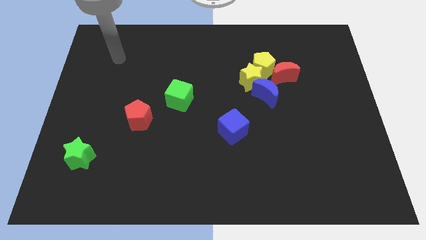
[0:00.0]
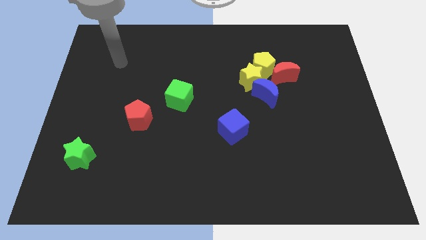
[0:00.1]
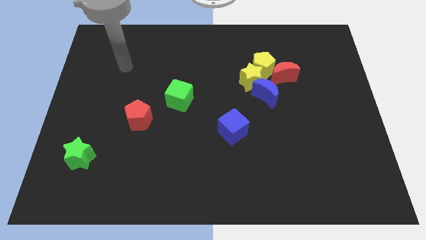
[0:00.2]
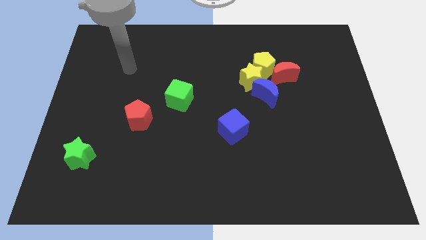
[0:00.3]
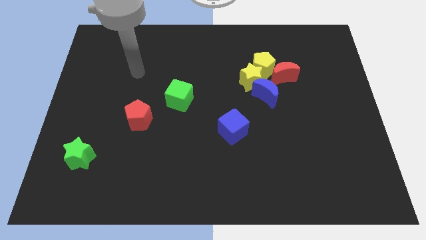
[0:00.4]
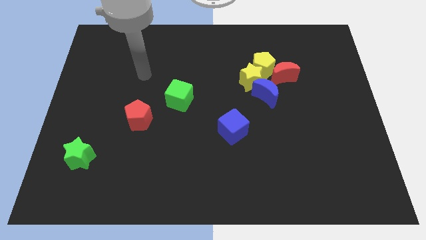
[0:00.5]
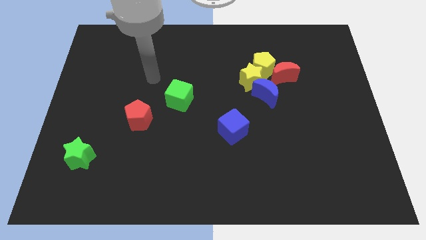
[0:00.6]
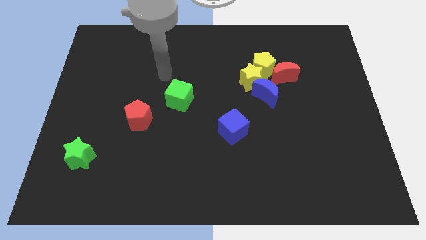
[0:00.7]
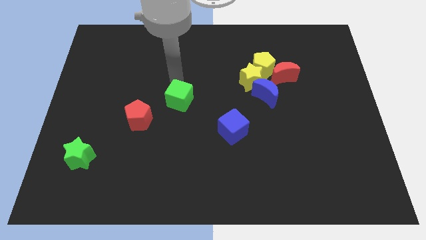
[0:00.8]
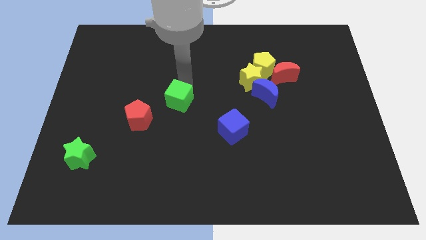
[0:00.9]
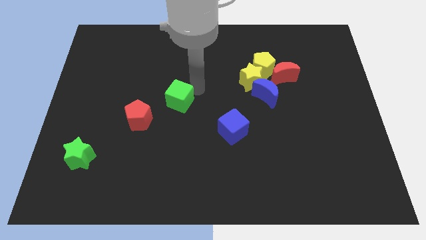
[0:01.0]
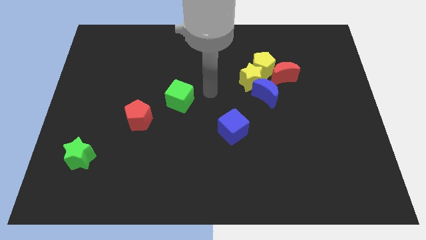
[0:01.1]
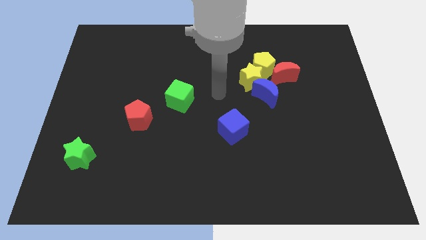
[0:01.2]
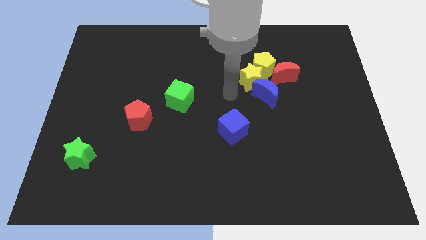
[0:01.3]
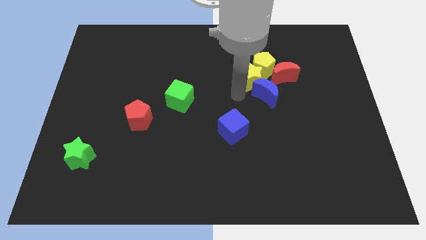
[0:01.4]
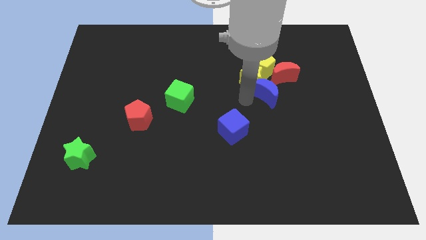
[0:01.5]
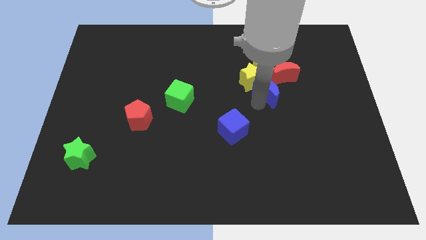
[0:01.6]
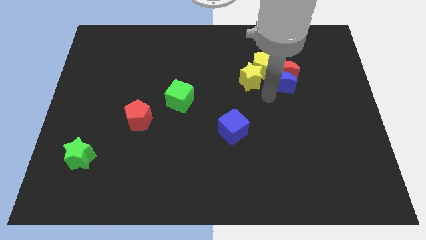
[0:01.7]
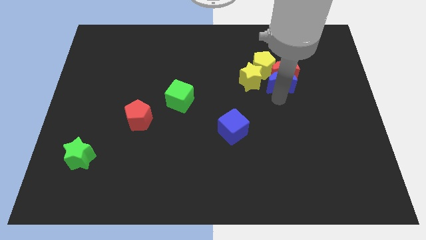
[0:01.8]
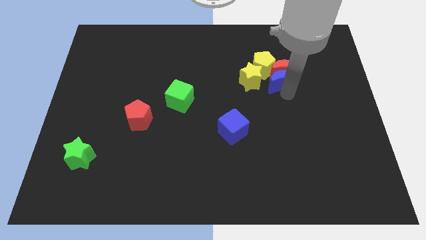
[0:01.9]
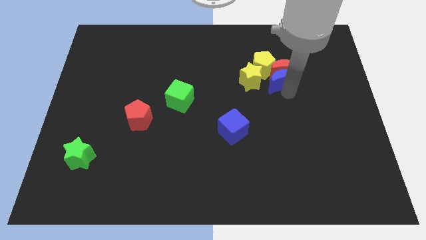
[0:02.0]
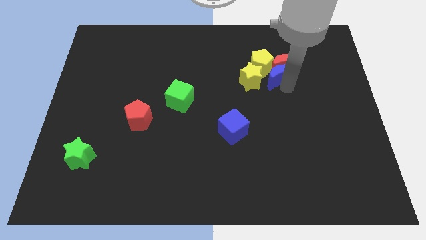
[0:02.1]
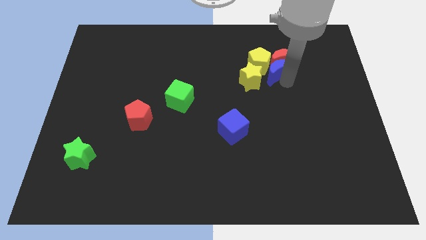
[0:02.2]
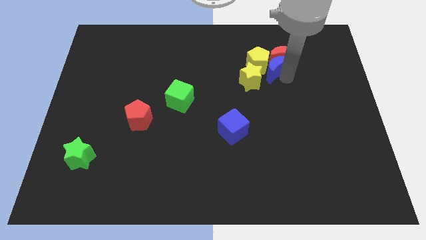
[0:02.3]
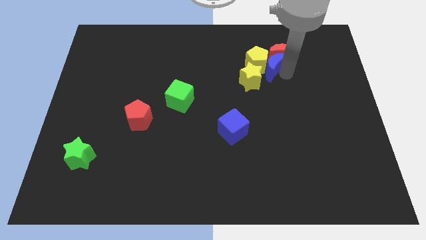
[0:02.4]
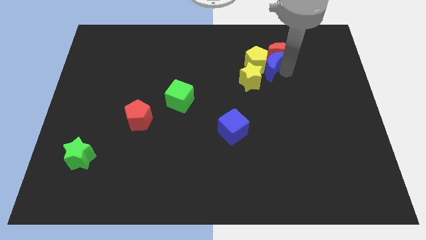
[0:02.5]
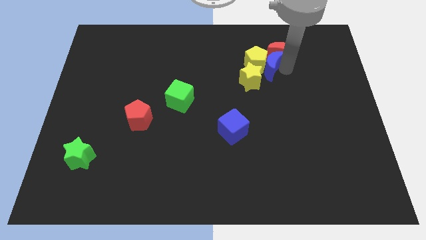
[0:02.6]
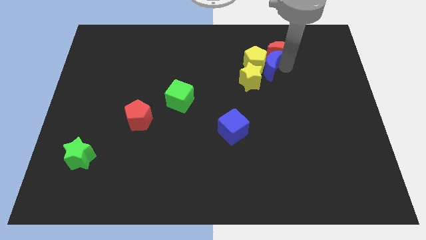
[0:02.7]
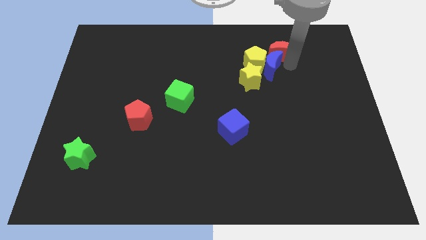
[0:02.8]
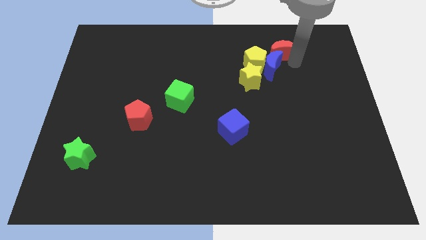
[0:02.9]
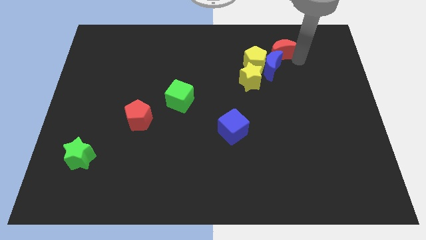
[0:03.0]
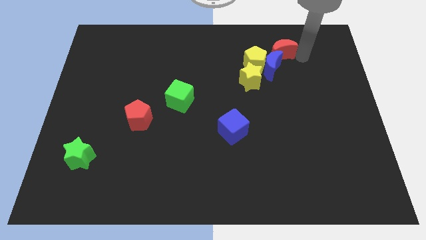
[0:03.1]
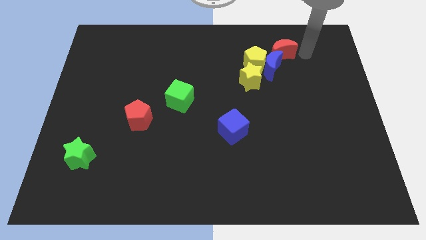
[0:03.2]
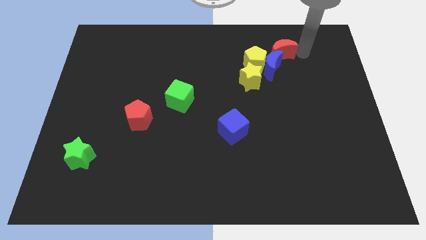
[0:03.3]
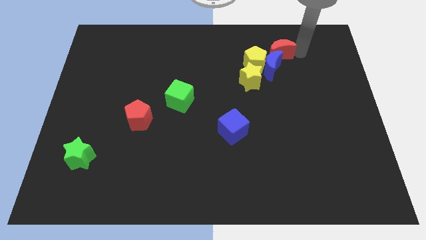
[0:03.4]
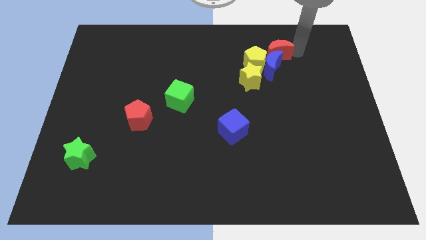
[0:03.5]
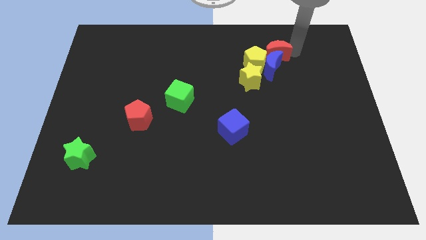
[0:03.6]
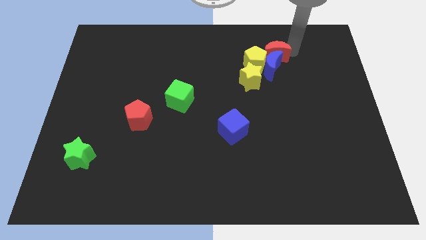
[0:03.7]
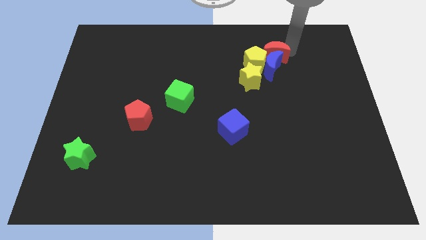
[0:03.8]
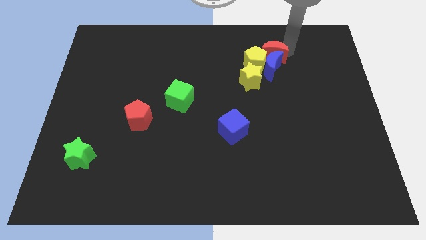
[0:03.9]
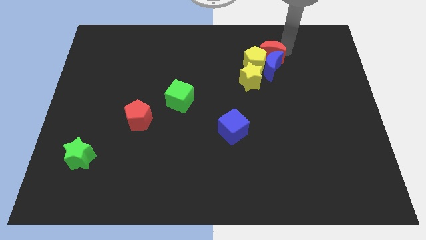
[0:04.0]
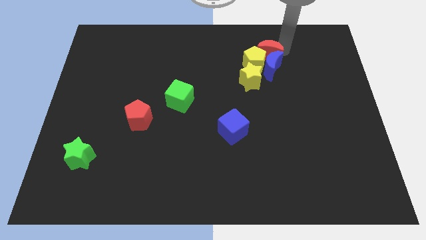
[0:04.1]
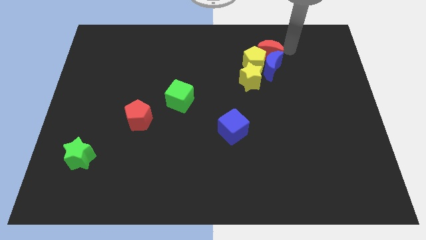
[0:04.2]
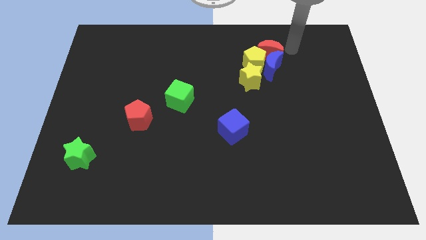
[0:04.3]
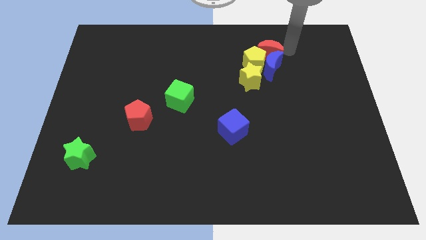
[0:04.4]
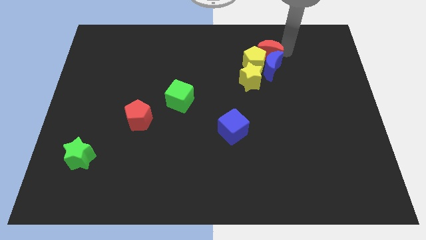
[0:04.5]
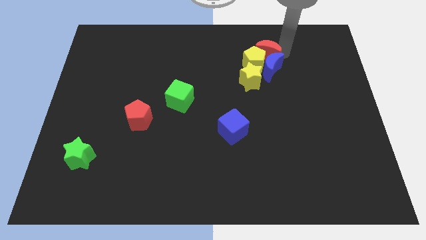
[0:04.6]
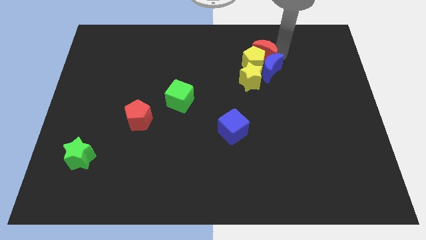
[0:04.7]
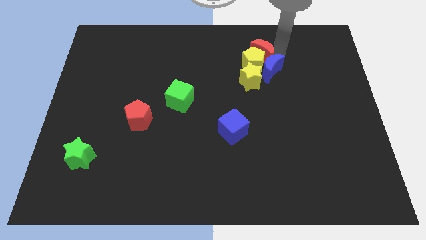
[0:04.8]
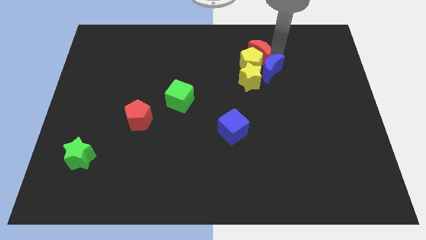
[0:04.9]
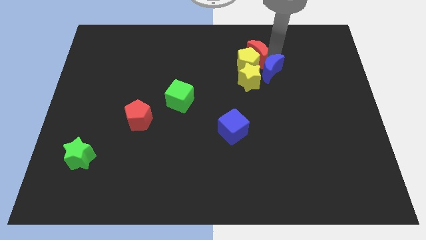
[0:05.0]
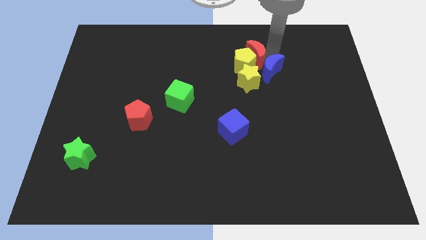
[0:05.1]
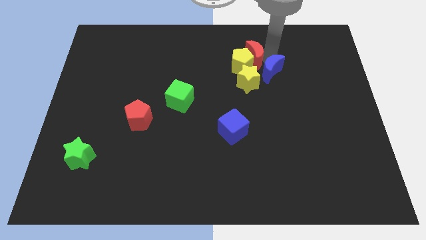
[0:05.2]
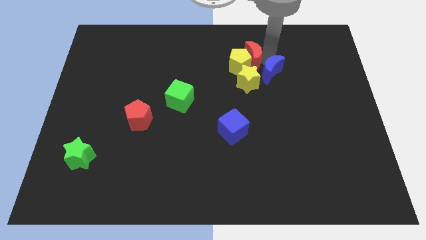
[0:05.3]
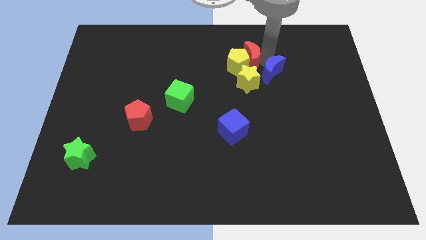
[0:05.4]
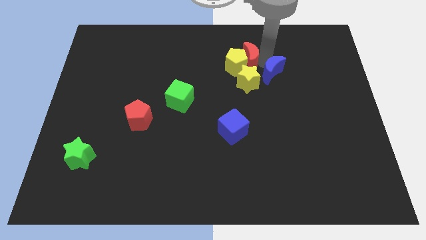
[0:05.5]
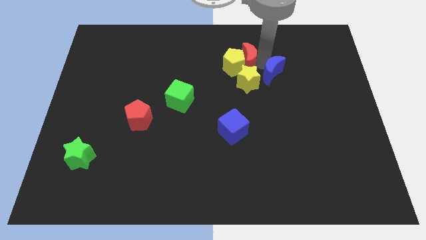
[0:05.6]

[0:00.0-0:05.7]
slide the red moon to the left a bit

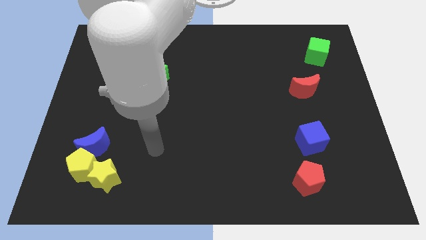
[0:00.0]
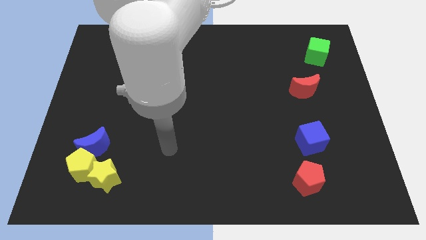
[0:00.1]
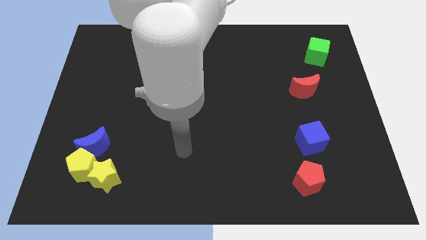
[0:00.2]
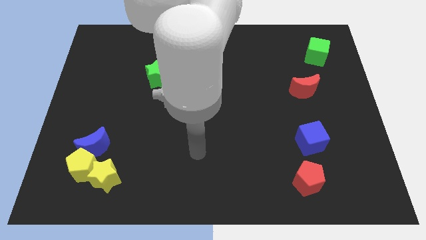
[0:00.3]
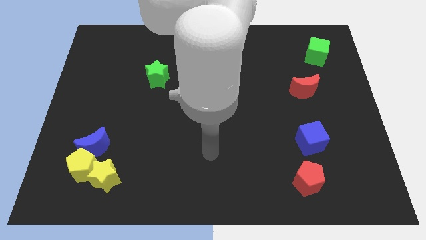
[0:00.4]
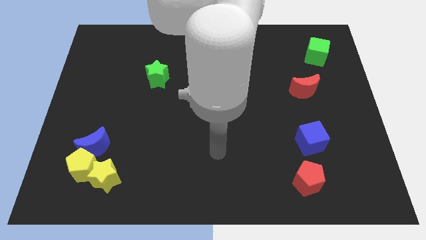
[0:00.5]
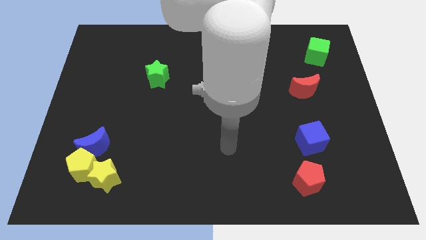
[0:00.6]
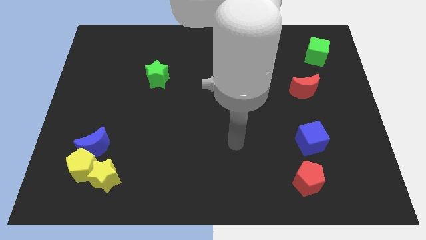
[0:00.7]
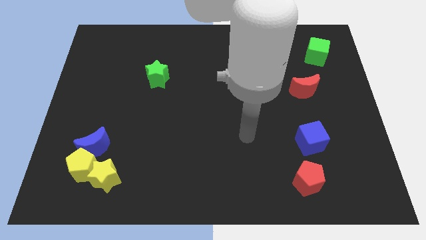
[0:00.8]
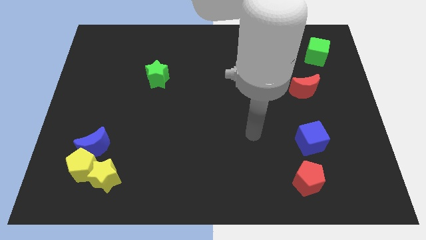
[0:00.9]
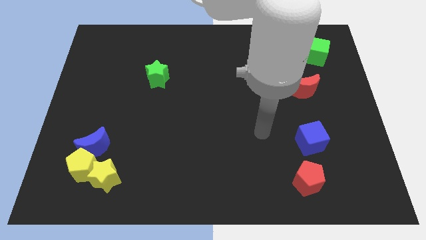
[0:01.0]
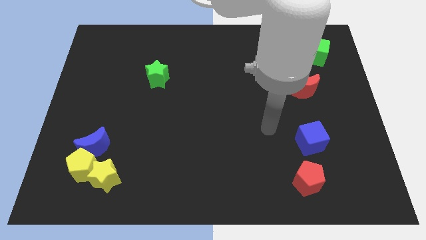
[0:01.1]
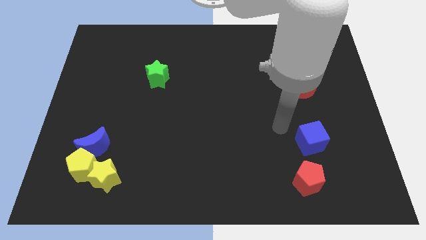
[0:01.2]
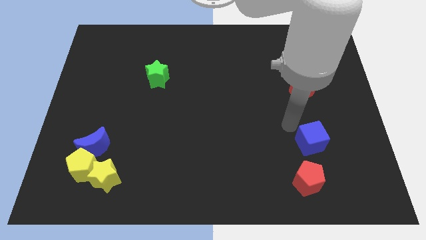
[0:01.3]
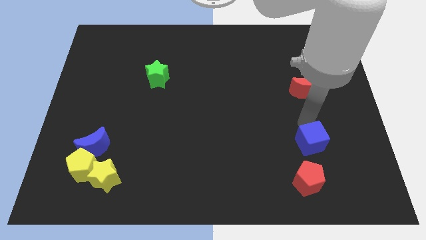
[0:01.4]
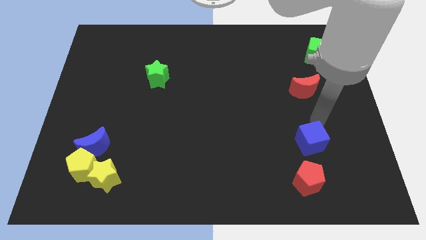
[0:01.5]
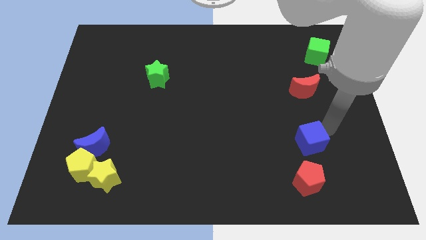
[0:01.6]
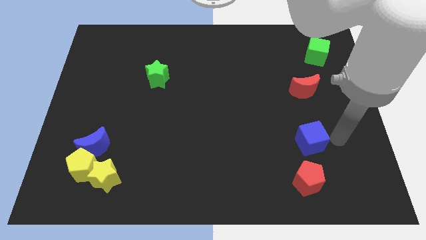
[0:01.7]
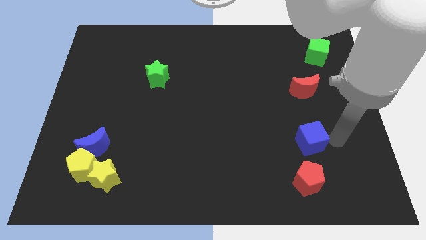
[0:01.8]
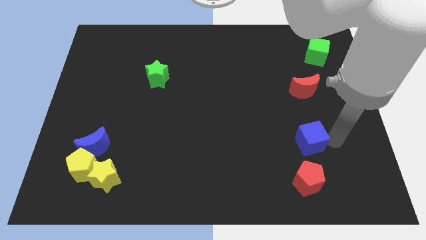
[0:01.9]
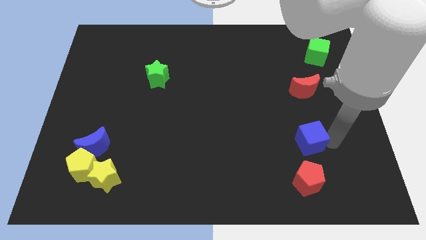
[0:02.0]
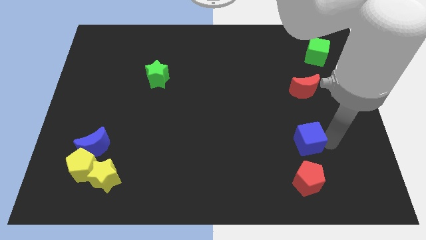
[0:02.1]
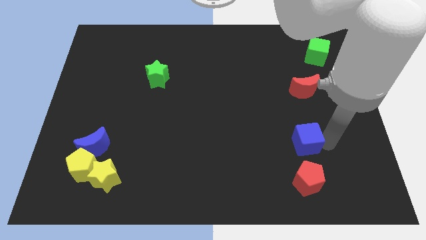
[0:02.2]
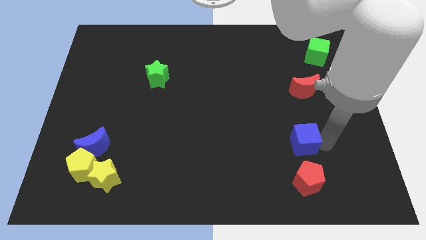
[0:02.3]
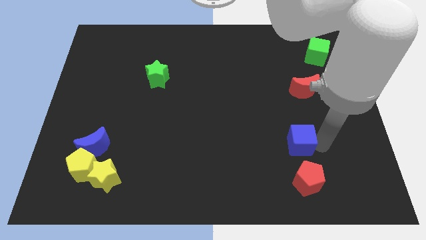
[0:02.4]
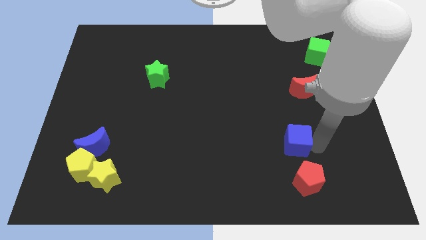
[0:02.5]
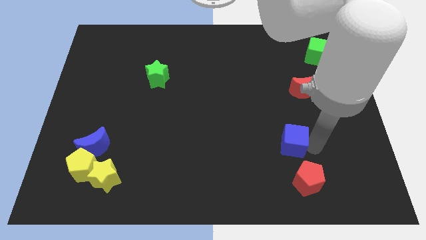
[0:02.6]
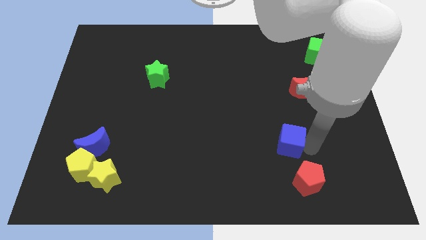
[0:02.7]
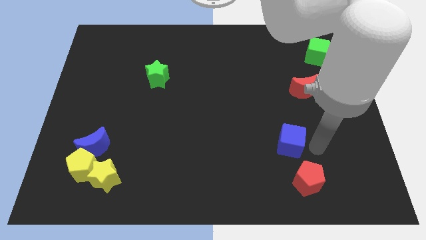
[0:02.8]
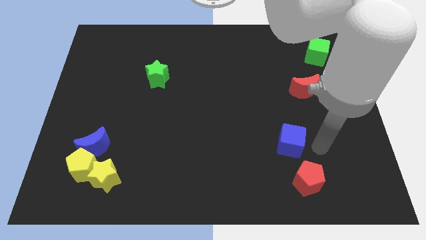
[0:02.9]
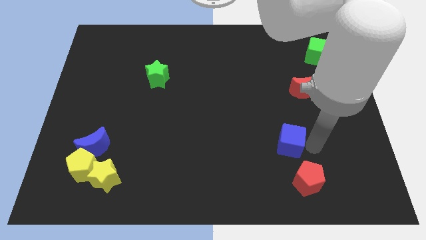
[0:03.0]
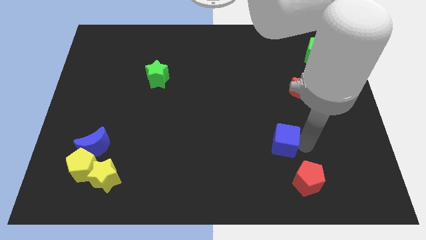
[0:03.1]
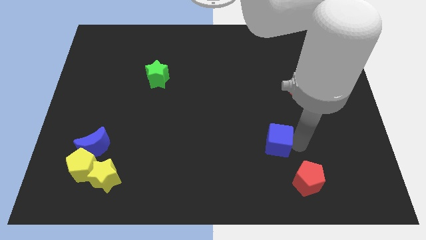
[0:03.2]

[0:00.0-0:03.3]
move the blue cube a little bit left
